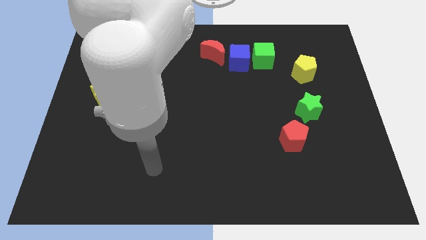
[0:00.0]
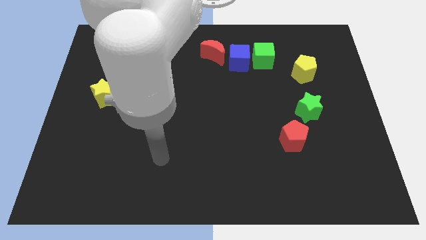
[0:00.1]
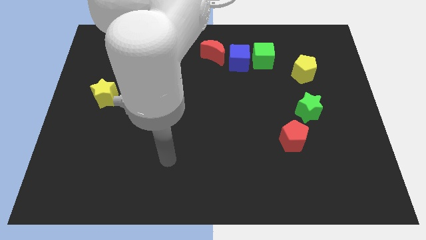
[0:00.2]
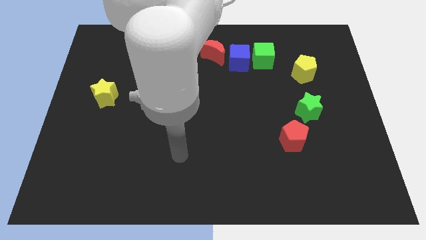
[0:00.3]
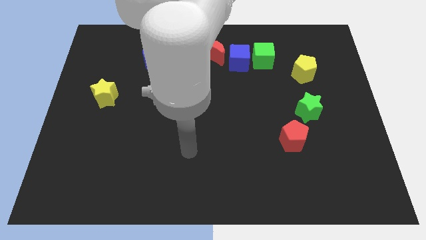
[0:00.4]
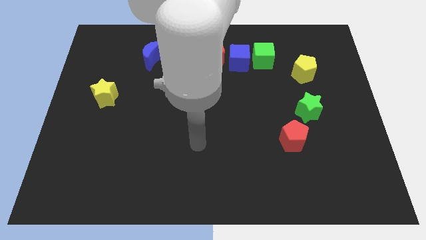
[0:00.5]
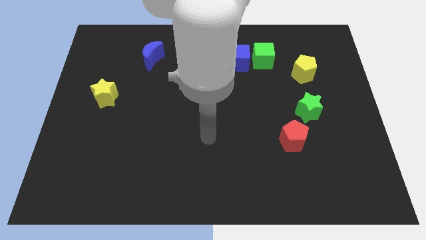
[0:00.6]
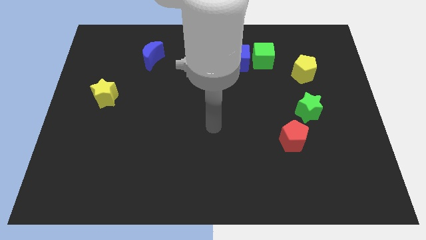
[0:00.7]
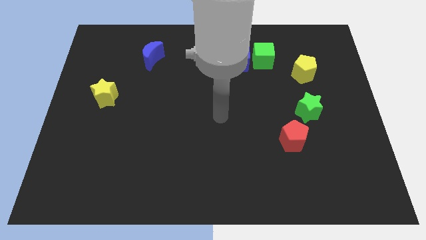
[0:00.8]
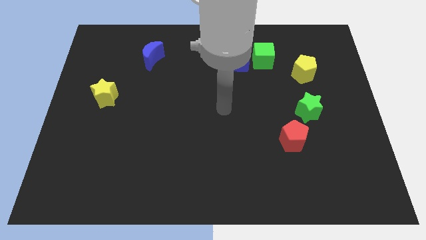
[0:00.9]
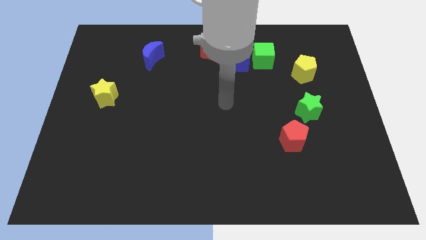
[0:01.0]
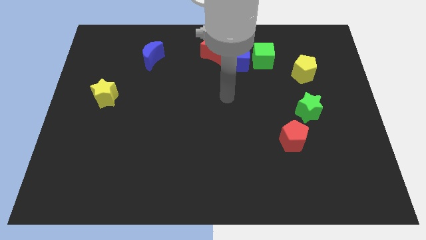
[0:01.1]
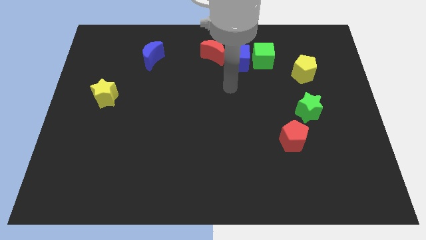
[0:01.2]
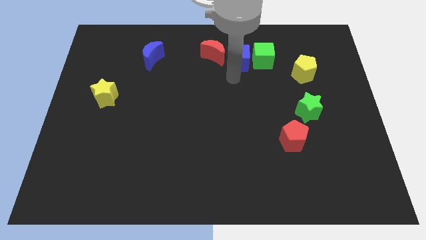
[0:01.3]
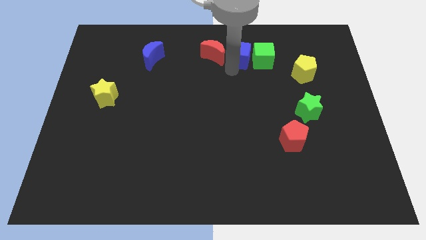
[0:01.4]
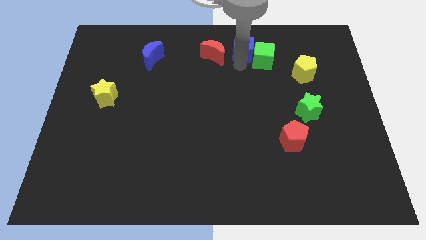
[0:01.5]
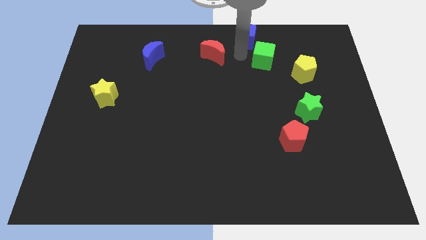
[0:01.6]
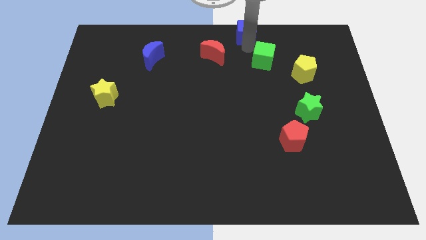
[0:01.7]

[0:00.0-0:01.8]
pull the green cube apart from the blue cube

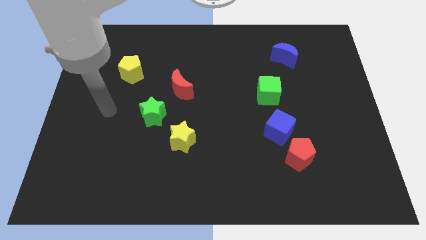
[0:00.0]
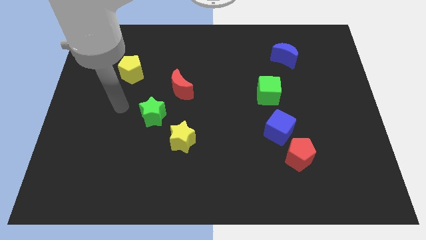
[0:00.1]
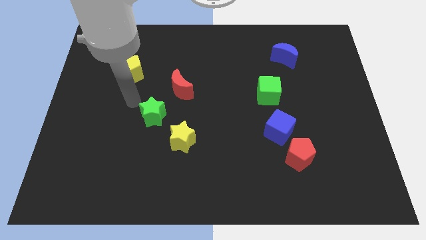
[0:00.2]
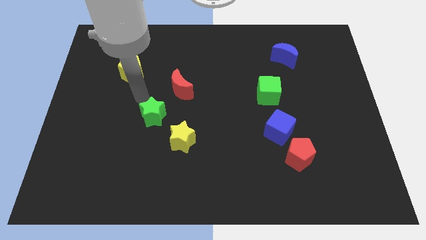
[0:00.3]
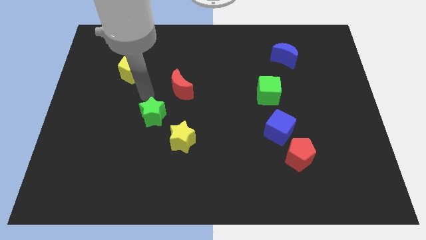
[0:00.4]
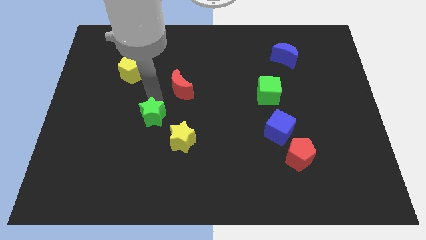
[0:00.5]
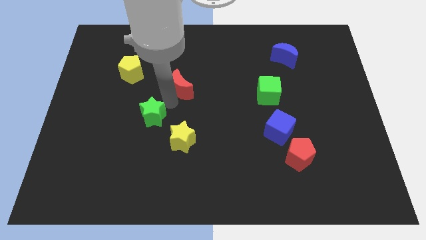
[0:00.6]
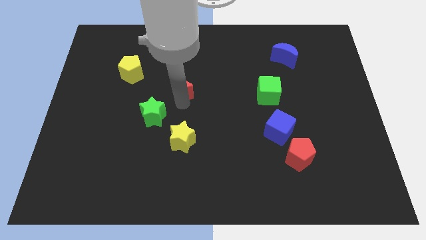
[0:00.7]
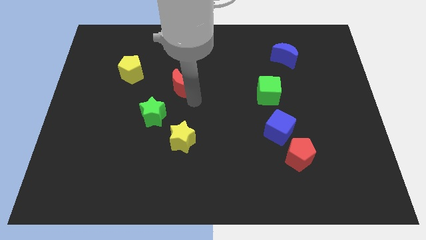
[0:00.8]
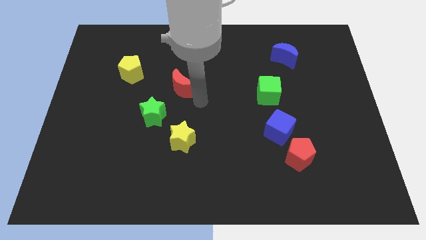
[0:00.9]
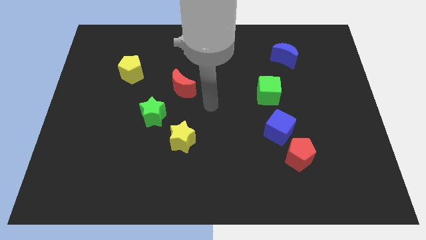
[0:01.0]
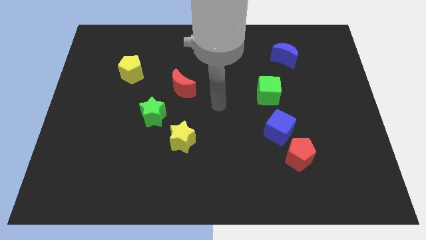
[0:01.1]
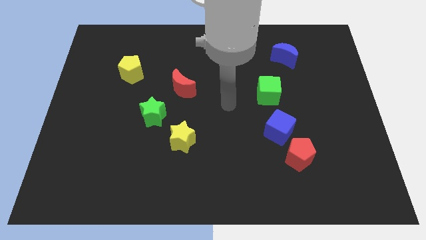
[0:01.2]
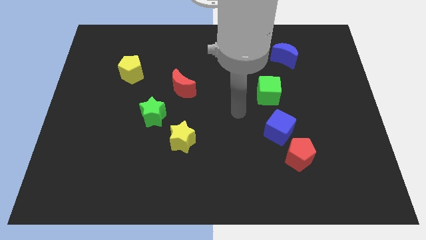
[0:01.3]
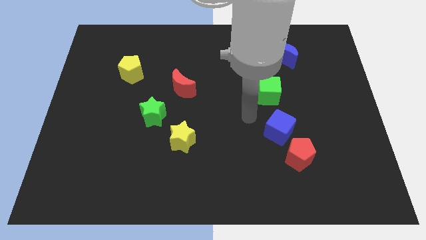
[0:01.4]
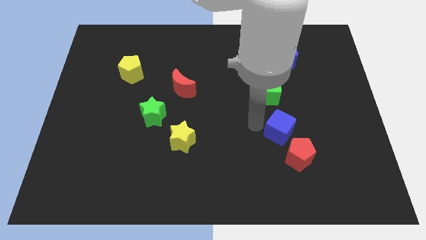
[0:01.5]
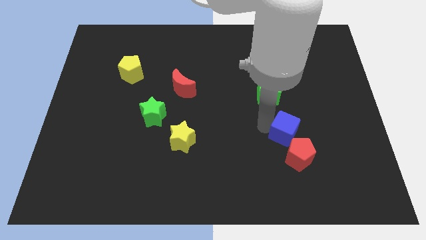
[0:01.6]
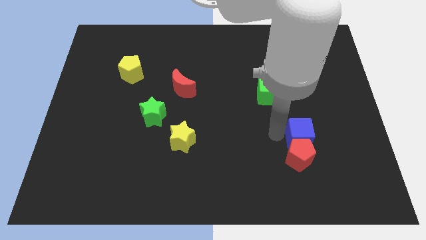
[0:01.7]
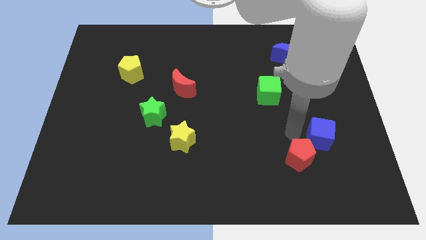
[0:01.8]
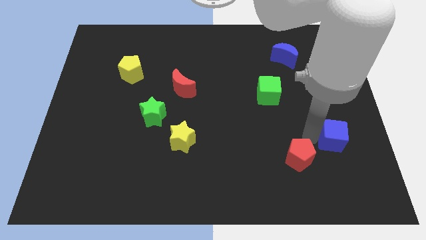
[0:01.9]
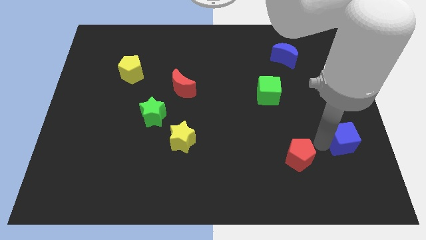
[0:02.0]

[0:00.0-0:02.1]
move the red pentagon away from the blue cube

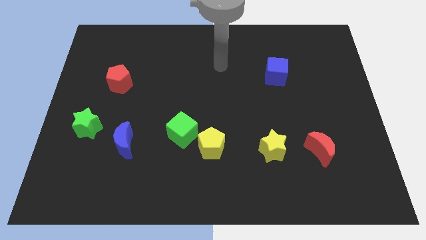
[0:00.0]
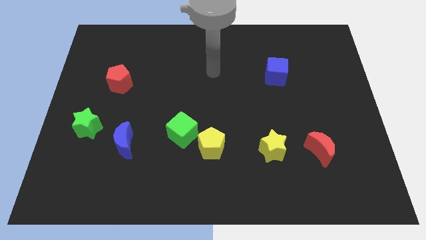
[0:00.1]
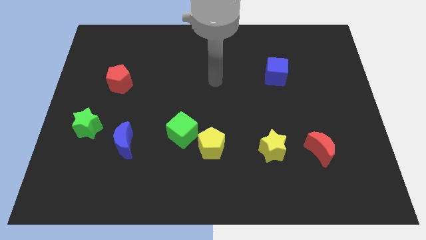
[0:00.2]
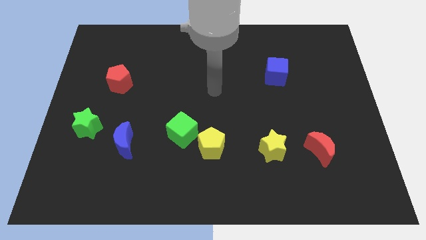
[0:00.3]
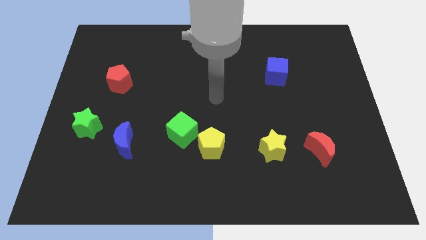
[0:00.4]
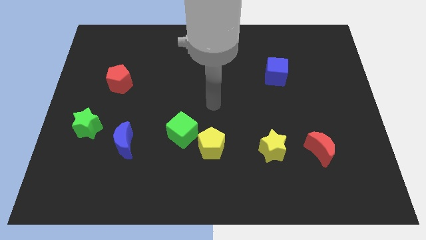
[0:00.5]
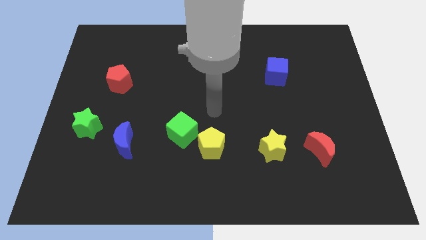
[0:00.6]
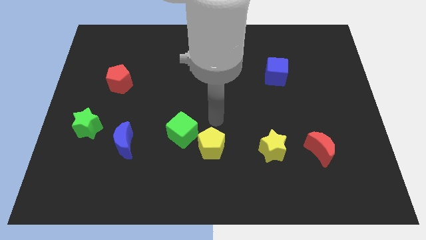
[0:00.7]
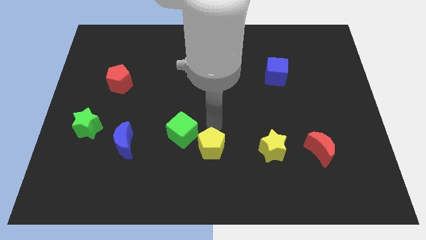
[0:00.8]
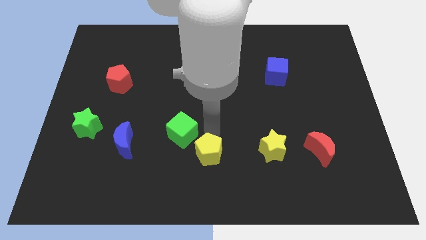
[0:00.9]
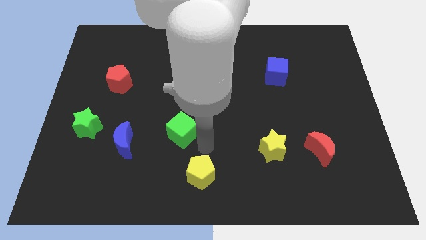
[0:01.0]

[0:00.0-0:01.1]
separate the green cube from the yellow pentagon

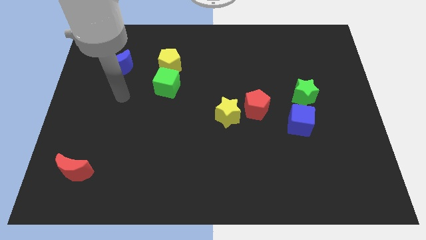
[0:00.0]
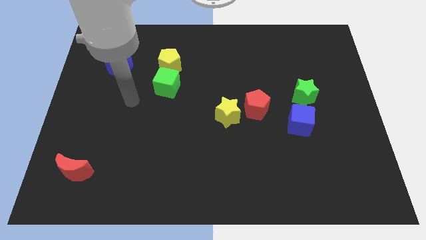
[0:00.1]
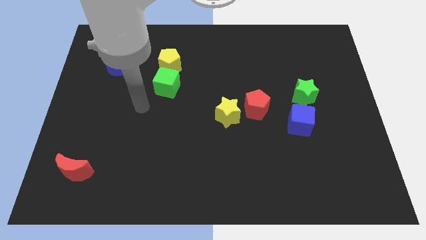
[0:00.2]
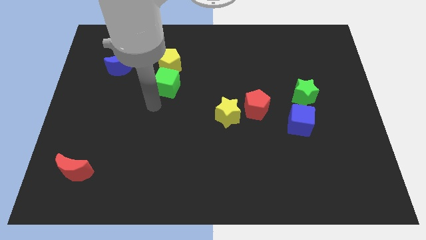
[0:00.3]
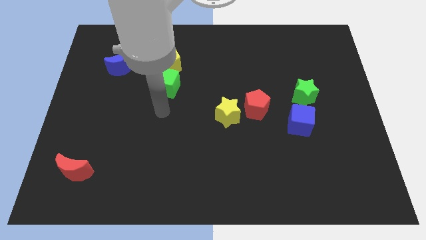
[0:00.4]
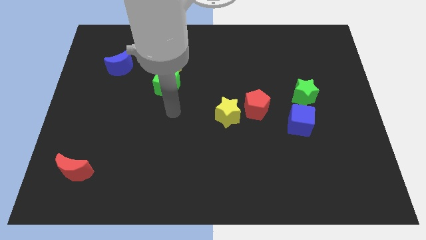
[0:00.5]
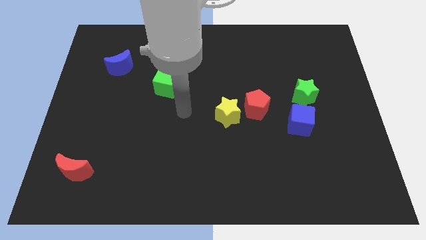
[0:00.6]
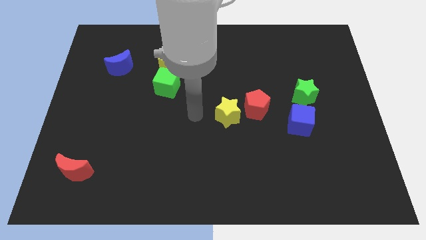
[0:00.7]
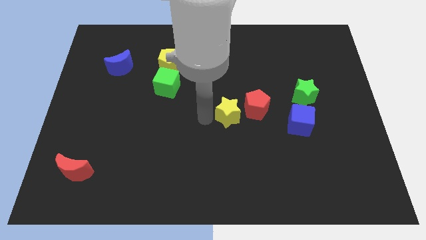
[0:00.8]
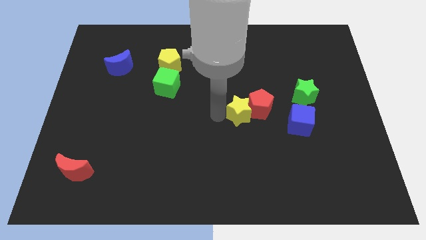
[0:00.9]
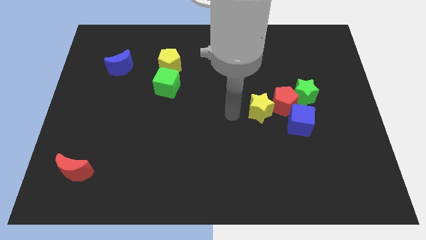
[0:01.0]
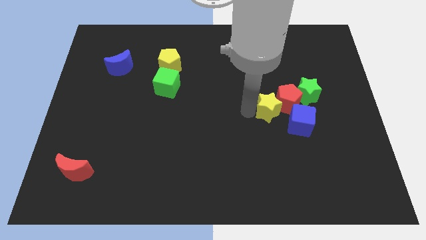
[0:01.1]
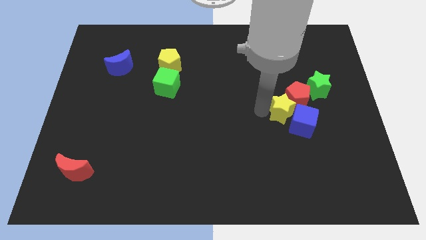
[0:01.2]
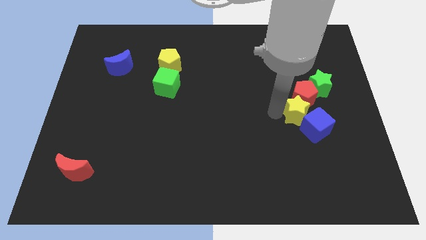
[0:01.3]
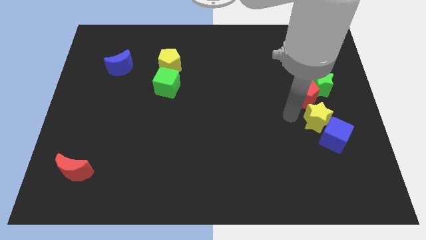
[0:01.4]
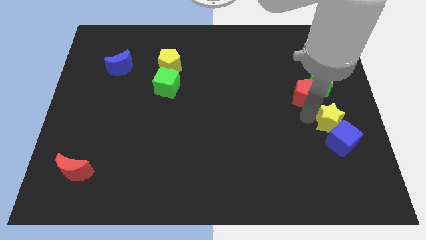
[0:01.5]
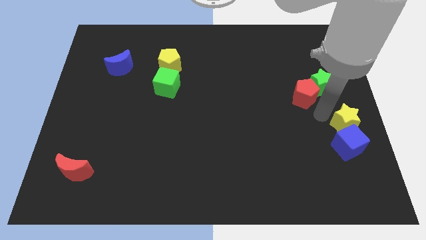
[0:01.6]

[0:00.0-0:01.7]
separate the red pentagon from the yellow star

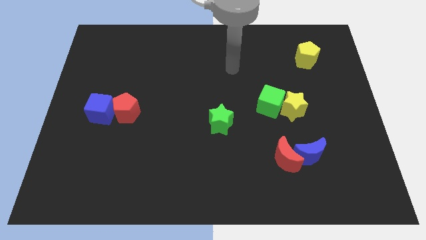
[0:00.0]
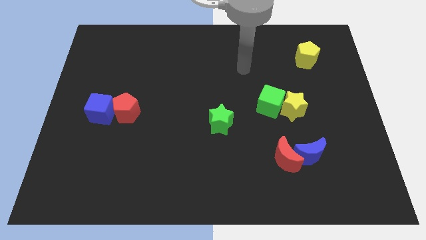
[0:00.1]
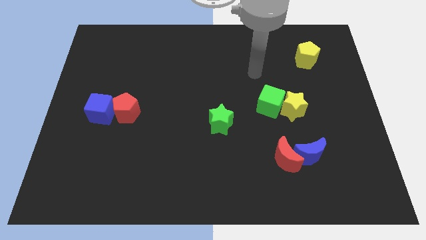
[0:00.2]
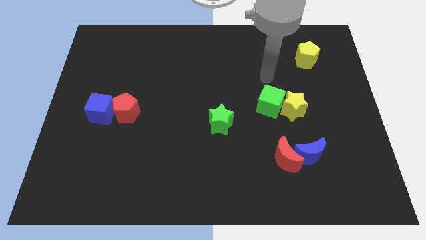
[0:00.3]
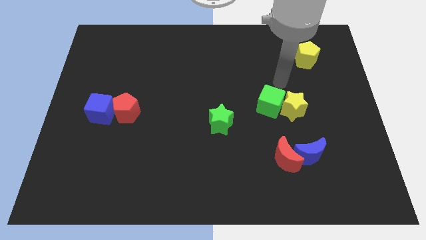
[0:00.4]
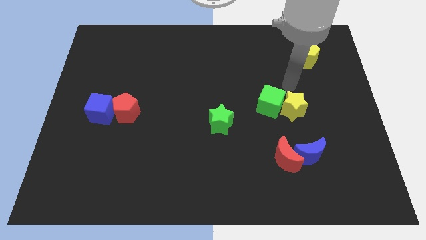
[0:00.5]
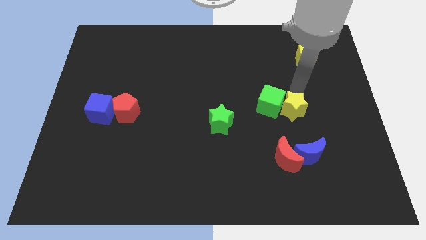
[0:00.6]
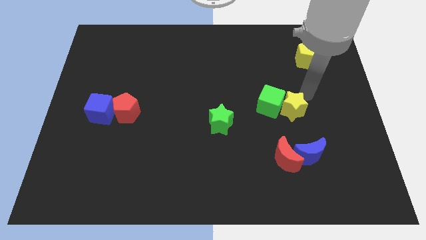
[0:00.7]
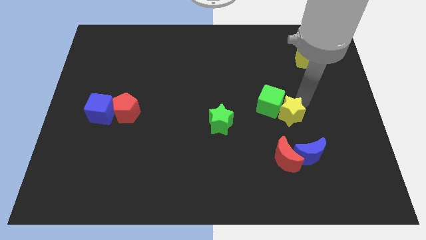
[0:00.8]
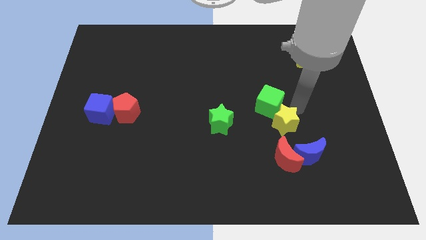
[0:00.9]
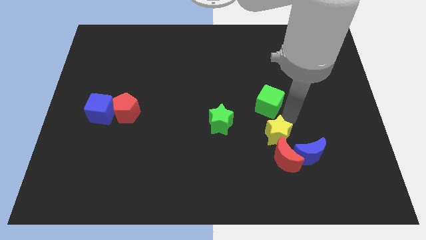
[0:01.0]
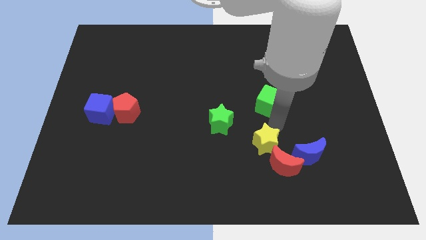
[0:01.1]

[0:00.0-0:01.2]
move the green cube away from the yellow star

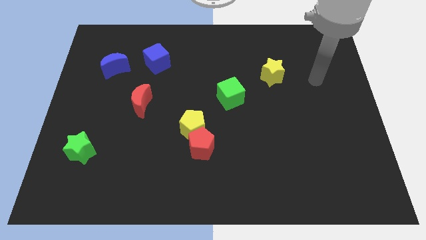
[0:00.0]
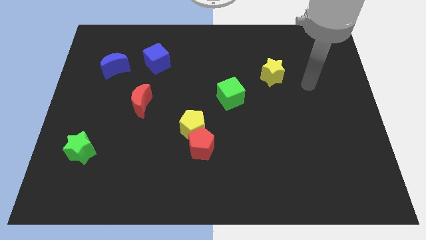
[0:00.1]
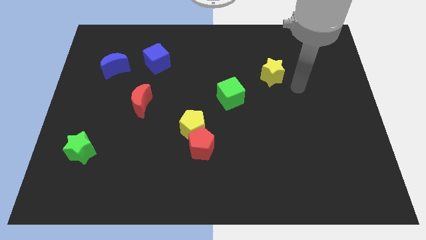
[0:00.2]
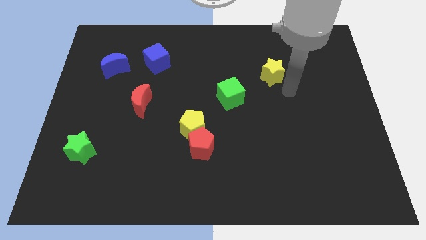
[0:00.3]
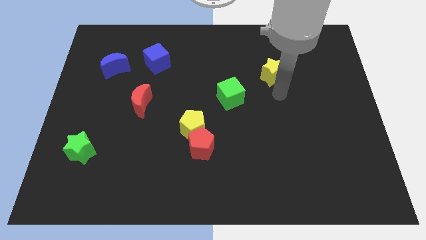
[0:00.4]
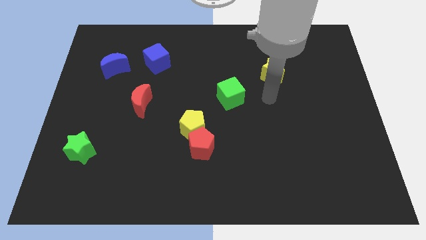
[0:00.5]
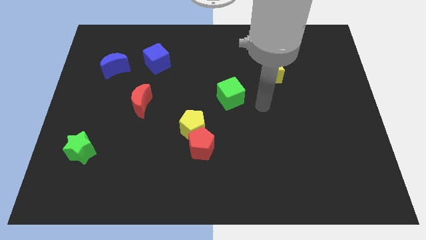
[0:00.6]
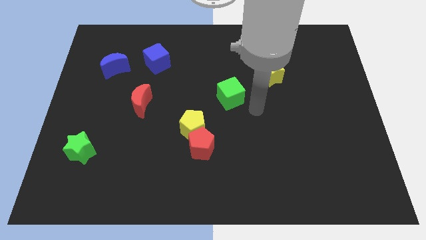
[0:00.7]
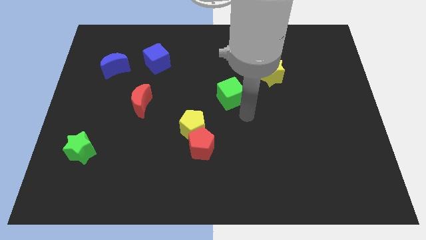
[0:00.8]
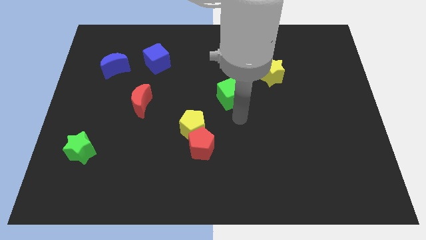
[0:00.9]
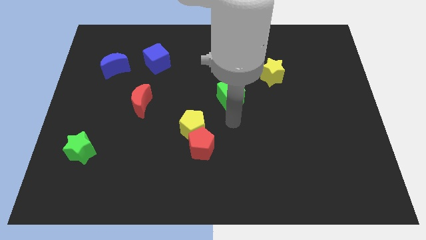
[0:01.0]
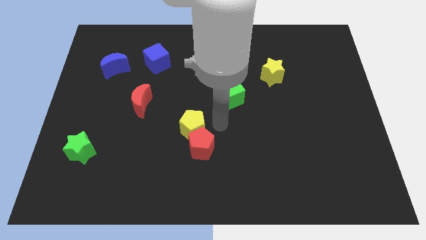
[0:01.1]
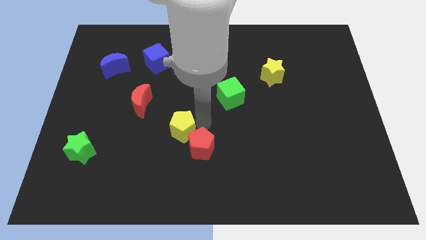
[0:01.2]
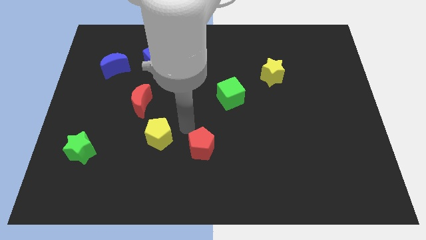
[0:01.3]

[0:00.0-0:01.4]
move the red pentagon away from the yellow pentagon
